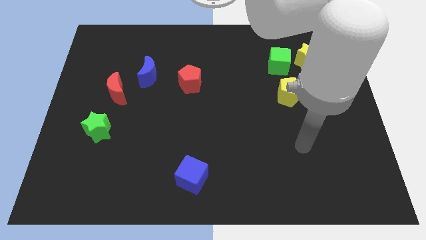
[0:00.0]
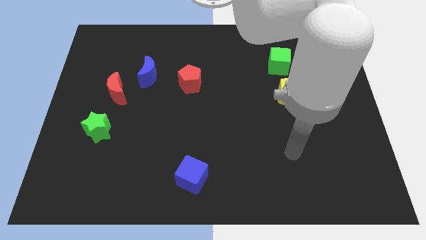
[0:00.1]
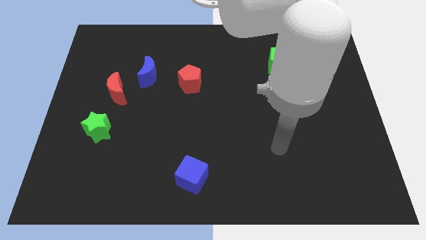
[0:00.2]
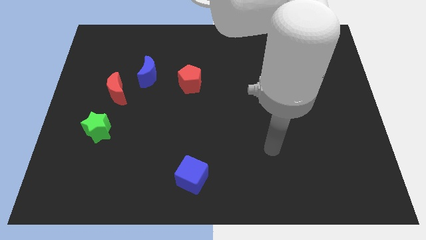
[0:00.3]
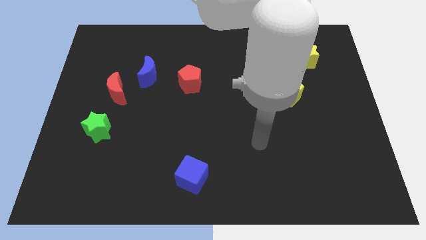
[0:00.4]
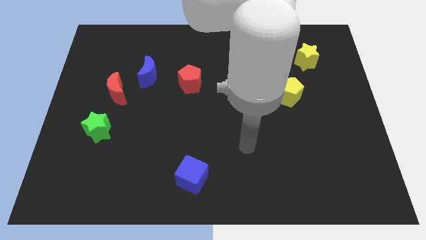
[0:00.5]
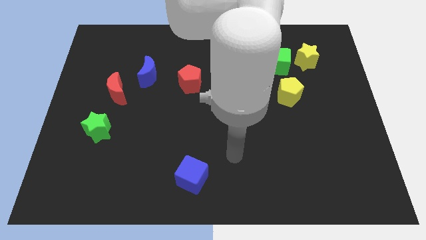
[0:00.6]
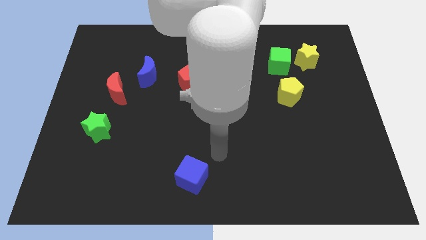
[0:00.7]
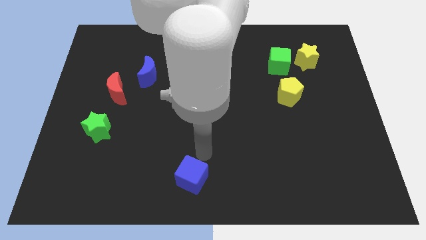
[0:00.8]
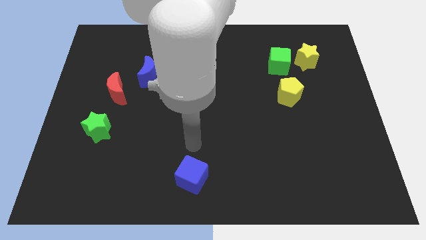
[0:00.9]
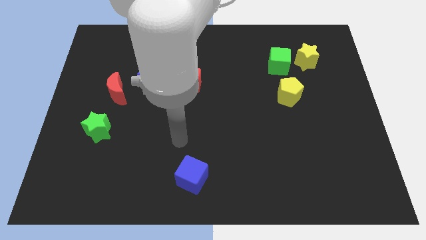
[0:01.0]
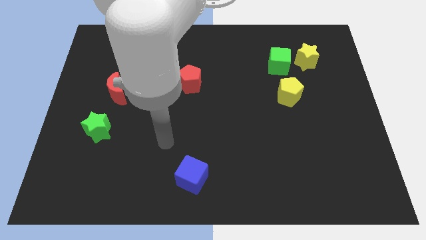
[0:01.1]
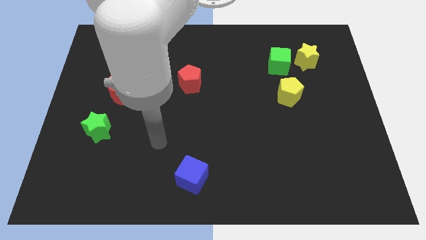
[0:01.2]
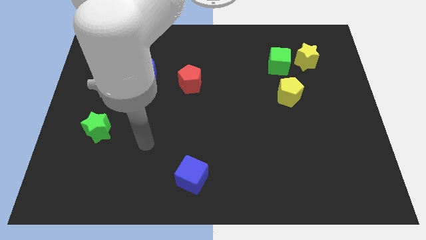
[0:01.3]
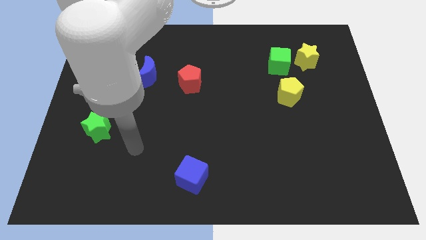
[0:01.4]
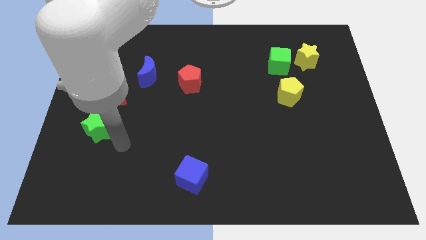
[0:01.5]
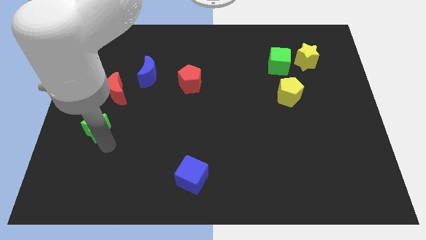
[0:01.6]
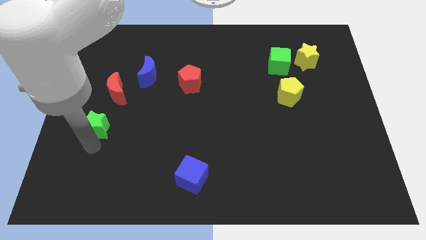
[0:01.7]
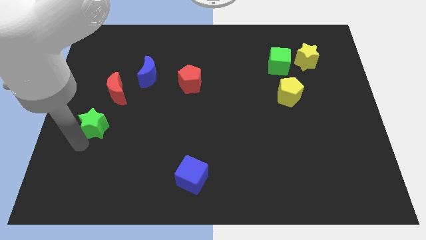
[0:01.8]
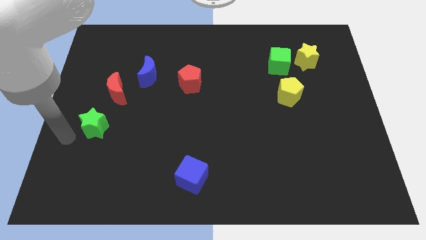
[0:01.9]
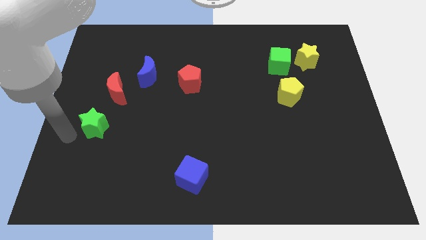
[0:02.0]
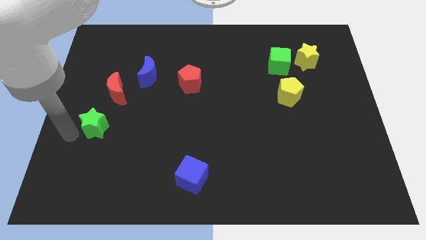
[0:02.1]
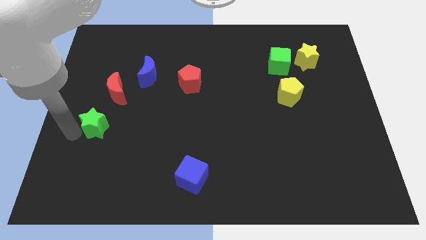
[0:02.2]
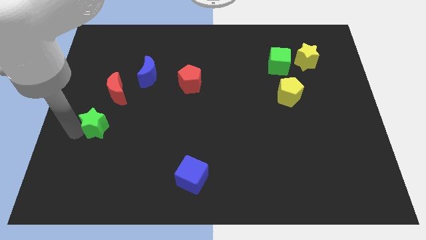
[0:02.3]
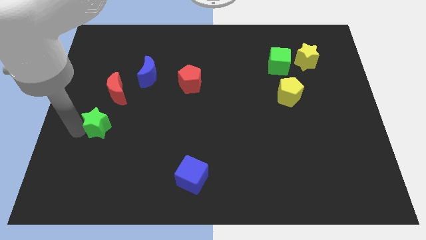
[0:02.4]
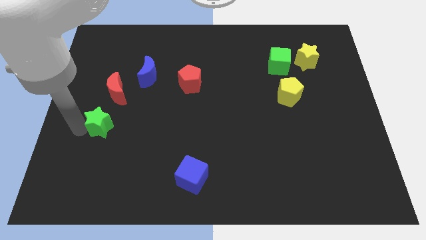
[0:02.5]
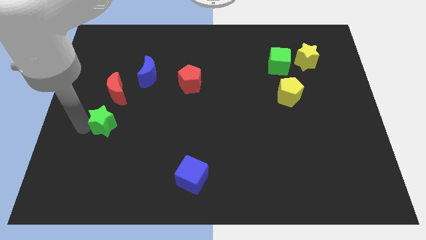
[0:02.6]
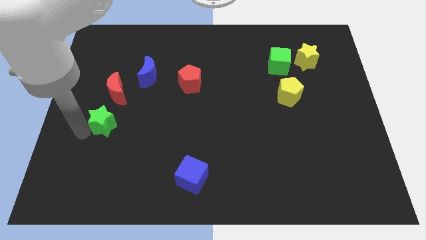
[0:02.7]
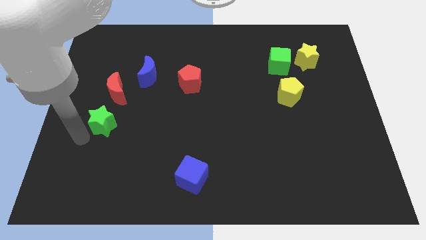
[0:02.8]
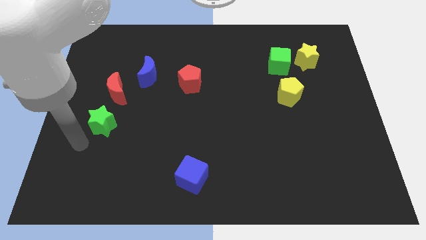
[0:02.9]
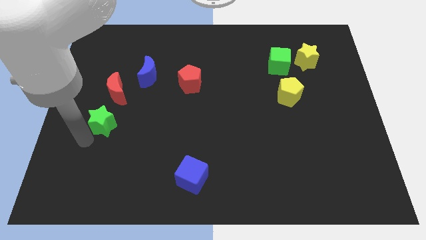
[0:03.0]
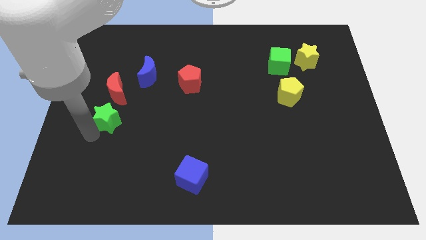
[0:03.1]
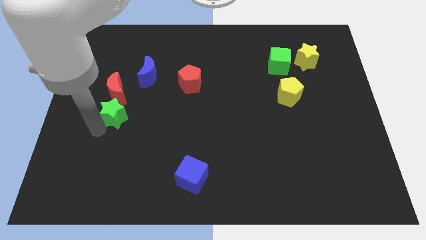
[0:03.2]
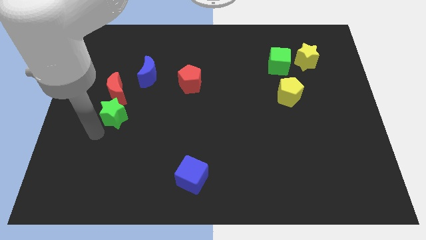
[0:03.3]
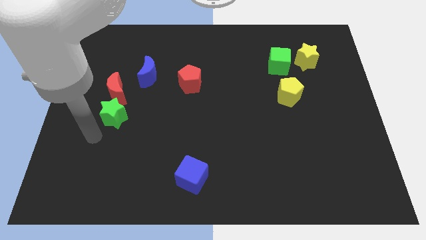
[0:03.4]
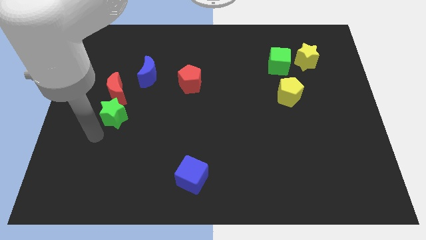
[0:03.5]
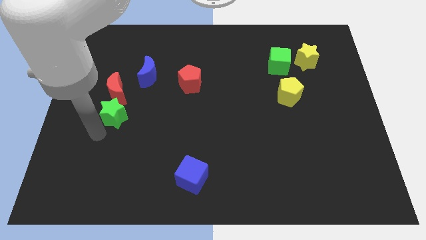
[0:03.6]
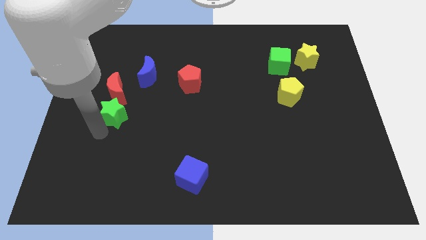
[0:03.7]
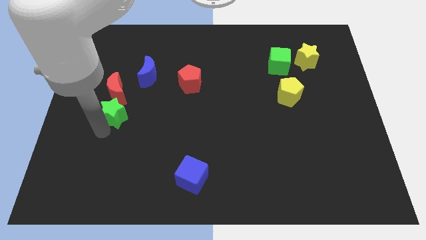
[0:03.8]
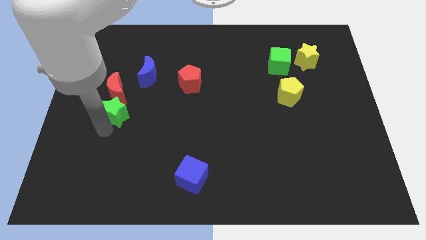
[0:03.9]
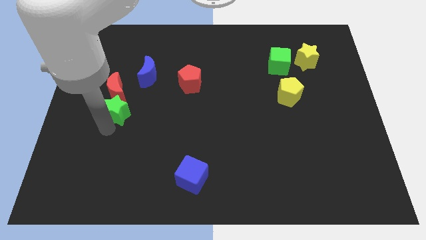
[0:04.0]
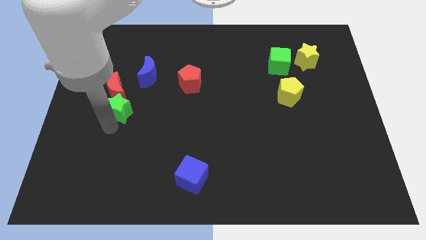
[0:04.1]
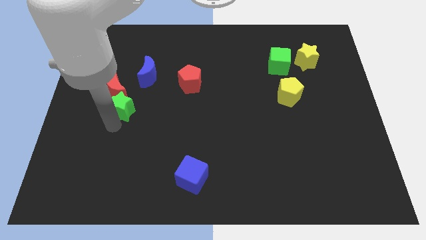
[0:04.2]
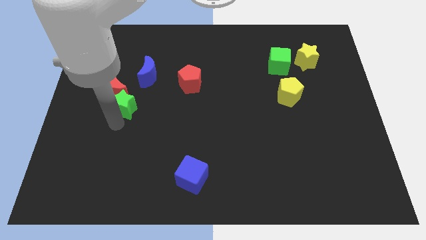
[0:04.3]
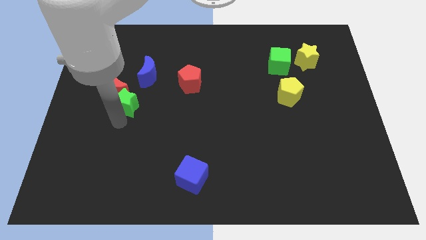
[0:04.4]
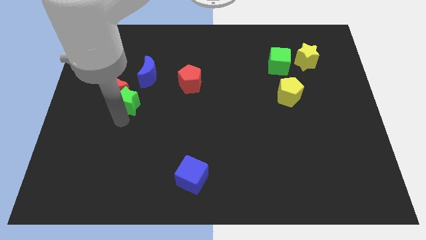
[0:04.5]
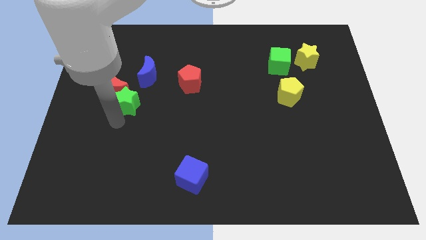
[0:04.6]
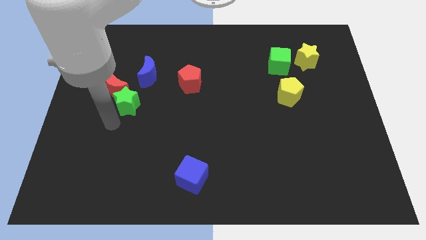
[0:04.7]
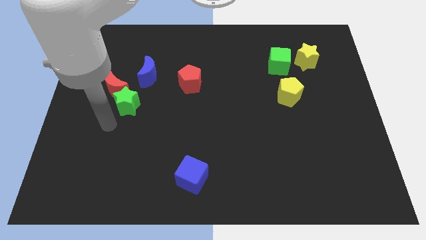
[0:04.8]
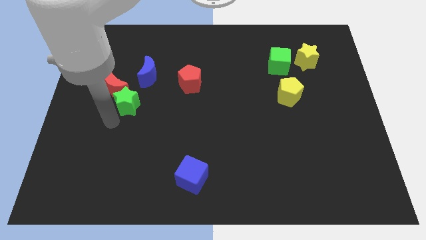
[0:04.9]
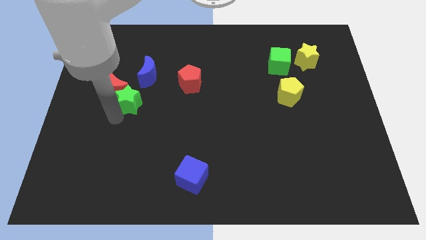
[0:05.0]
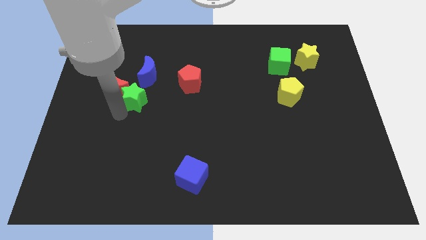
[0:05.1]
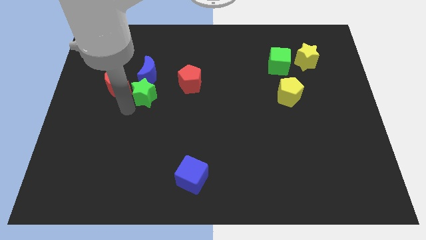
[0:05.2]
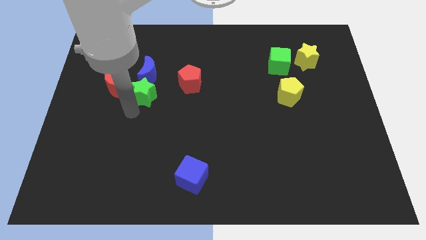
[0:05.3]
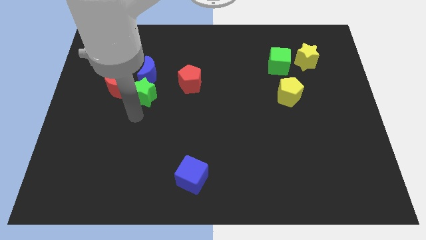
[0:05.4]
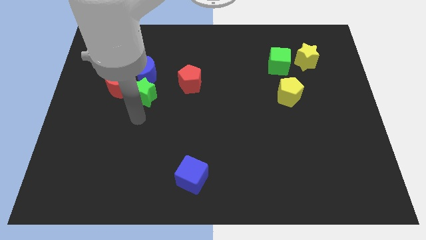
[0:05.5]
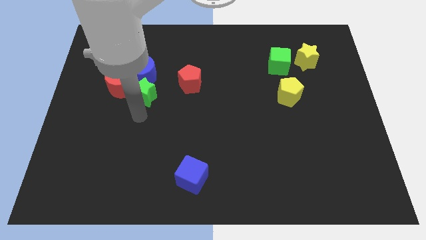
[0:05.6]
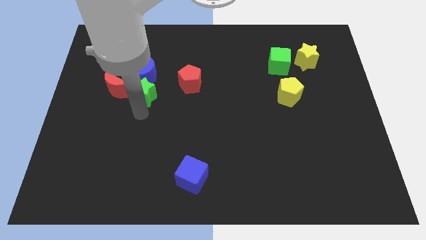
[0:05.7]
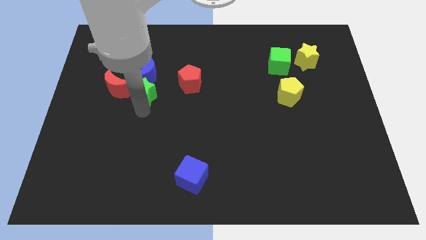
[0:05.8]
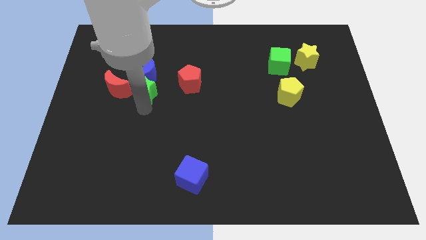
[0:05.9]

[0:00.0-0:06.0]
move the green star next to the blue moon
